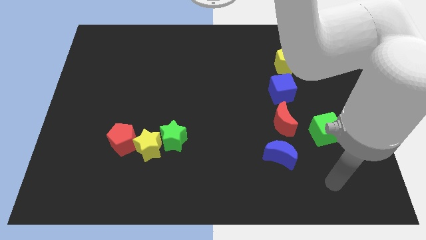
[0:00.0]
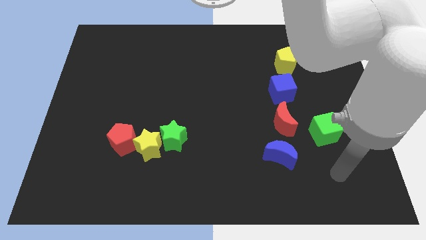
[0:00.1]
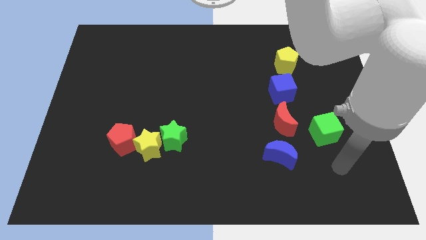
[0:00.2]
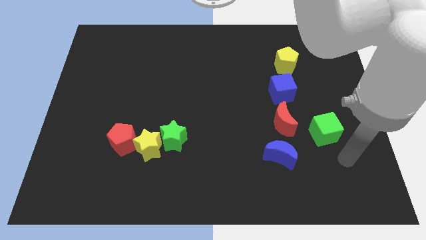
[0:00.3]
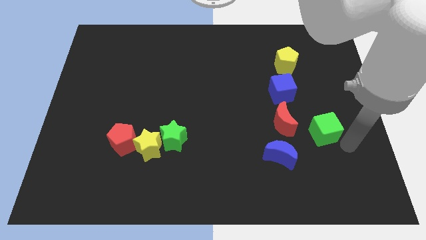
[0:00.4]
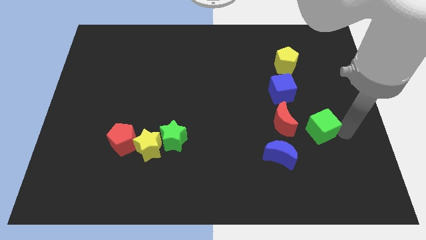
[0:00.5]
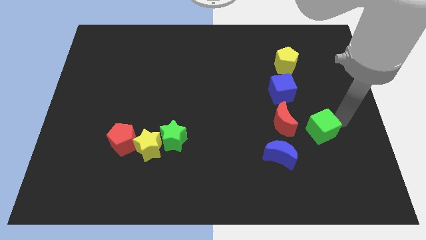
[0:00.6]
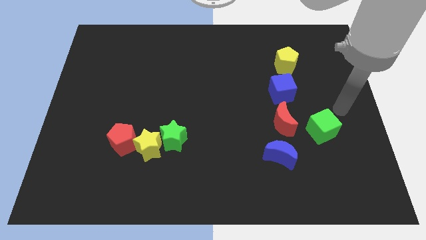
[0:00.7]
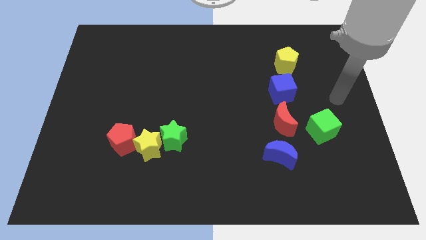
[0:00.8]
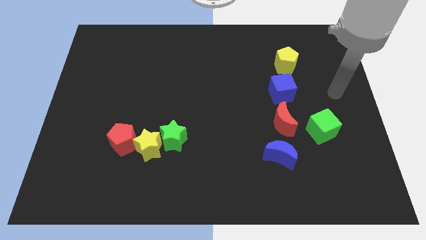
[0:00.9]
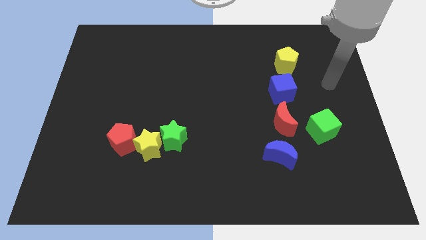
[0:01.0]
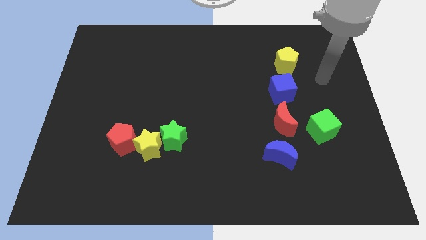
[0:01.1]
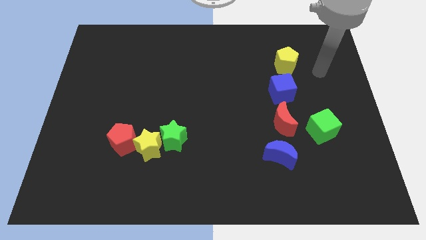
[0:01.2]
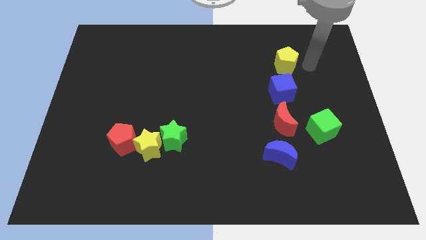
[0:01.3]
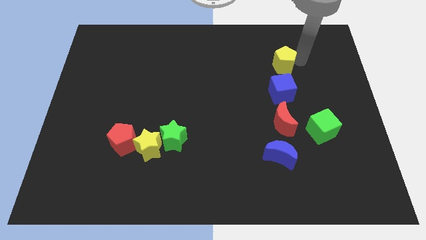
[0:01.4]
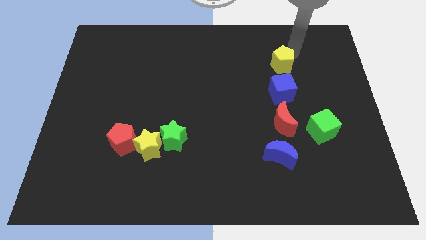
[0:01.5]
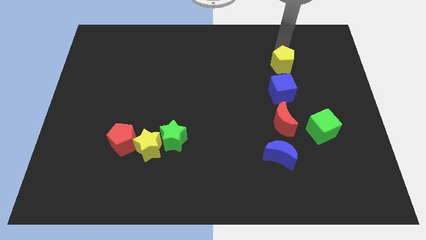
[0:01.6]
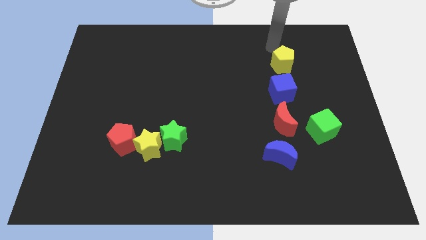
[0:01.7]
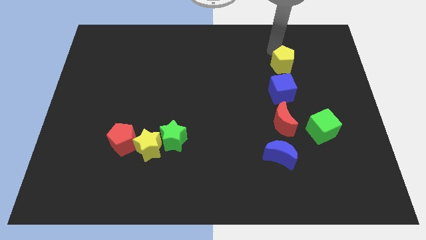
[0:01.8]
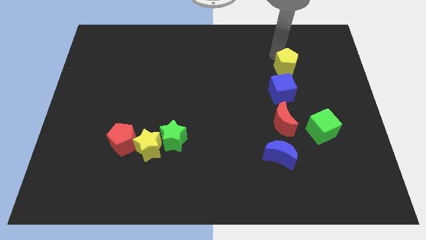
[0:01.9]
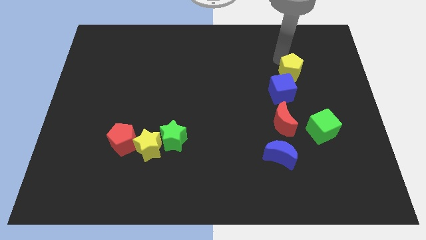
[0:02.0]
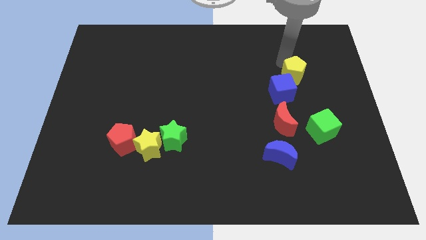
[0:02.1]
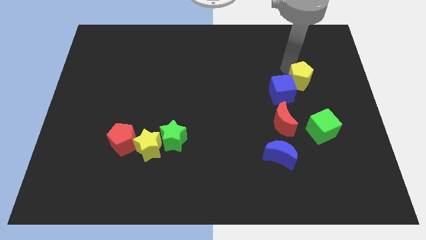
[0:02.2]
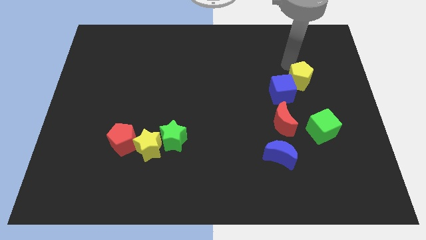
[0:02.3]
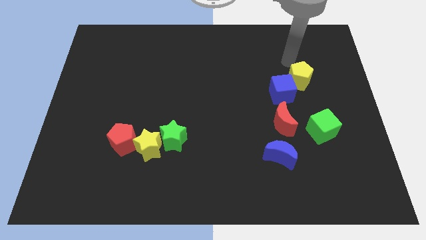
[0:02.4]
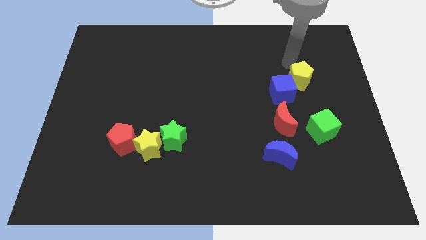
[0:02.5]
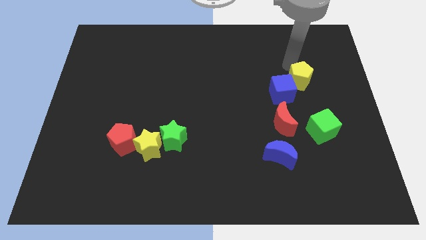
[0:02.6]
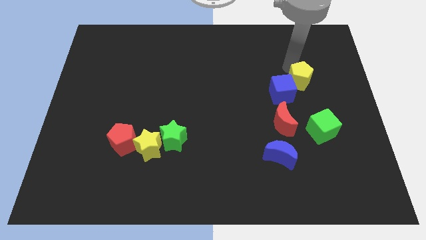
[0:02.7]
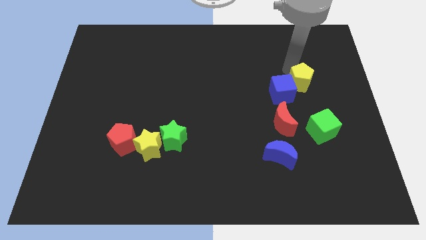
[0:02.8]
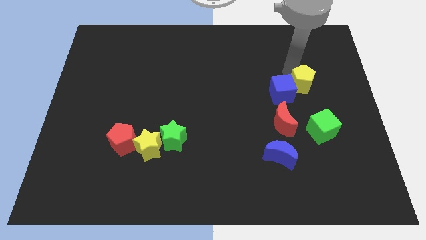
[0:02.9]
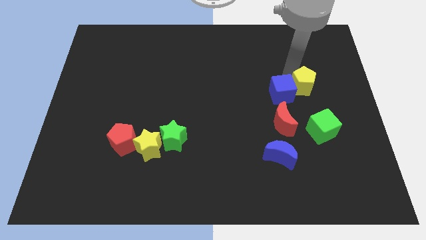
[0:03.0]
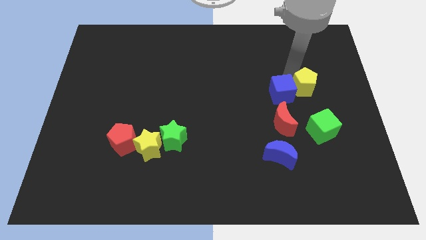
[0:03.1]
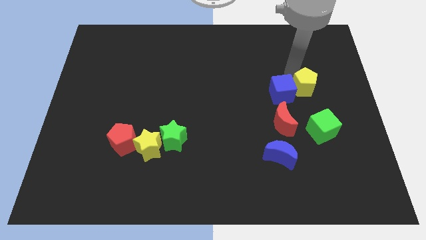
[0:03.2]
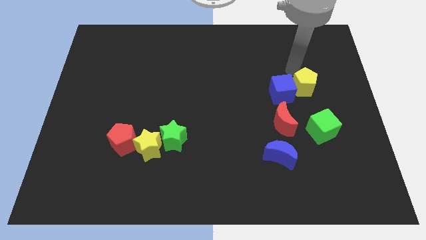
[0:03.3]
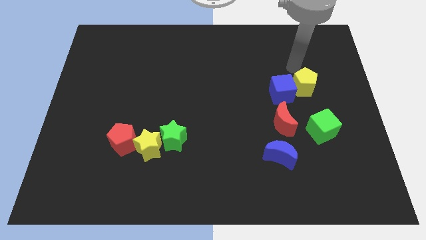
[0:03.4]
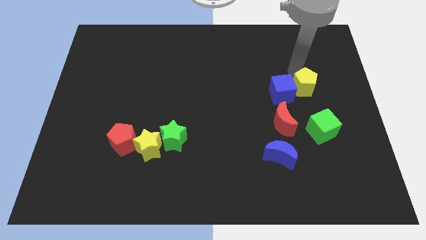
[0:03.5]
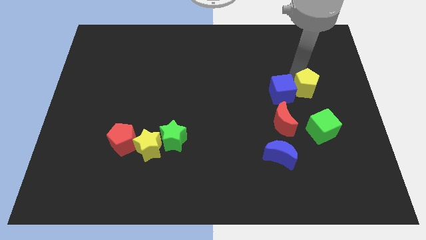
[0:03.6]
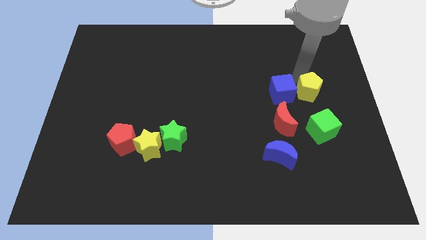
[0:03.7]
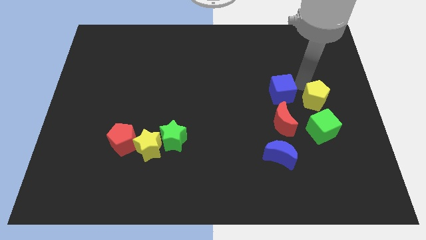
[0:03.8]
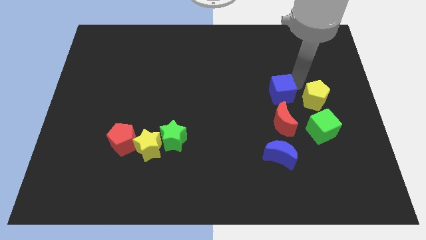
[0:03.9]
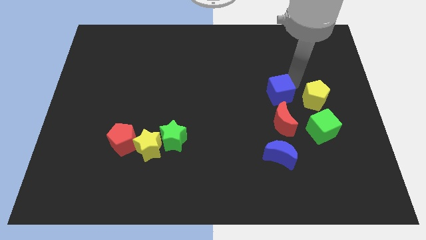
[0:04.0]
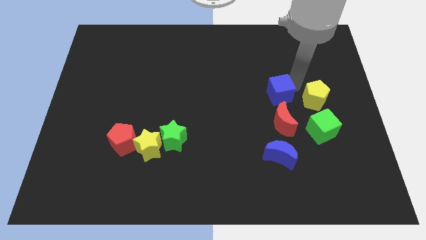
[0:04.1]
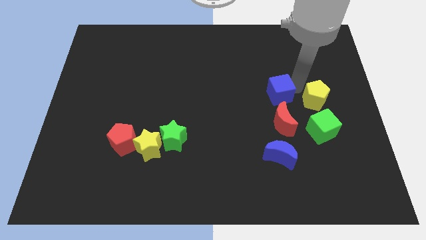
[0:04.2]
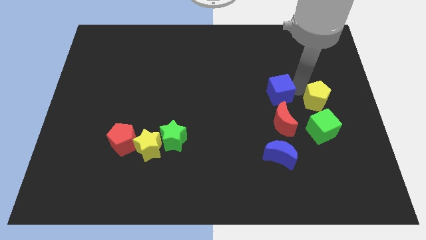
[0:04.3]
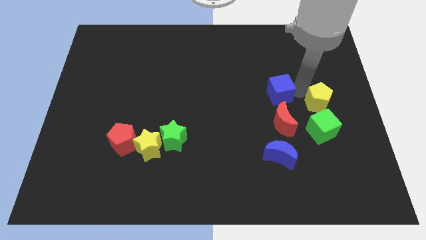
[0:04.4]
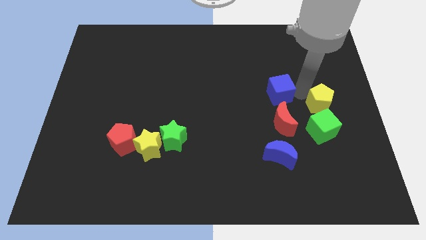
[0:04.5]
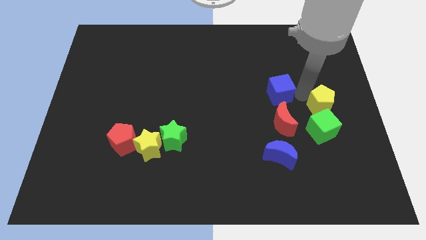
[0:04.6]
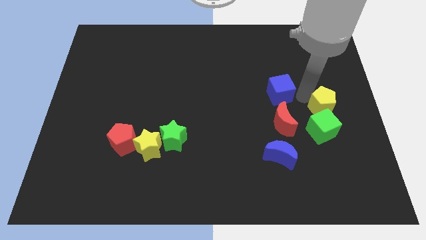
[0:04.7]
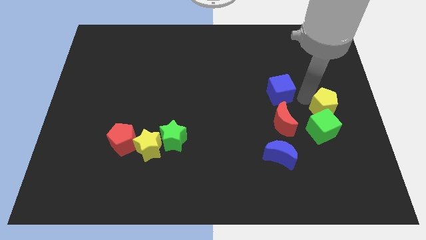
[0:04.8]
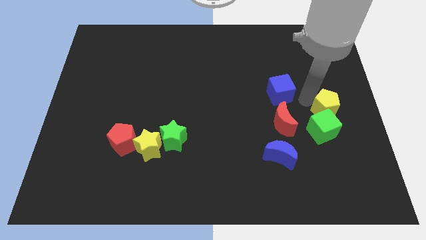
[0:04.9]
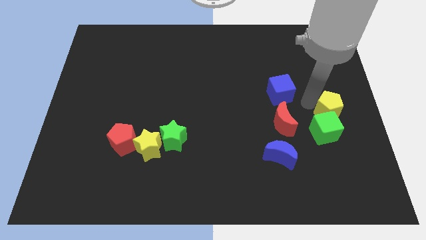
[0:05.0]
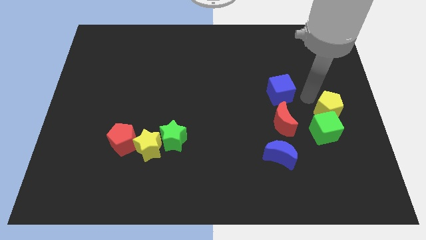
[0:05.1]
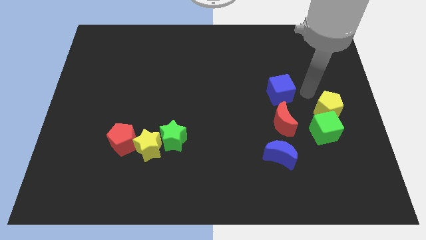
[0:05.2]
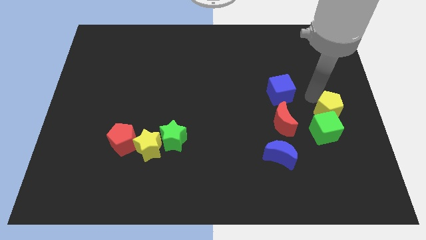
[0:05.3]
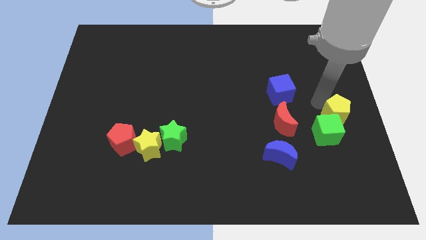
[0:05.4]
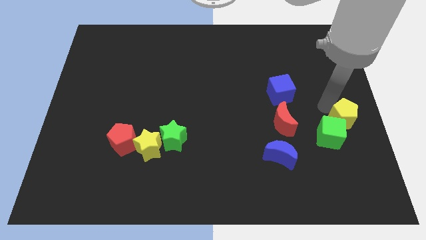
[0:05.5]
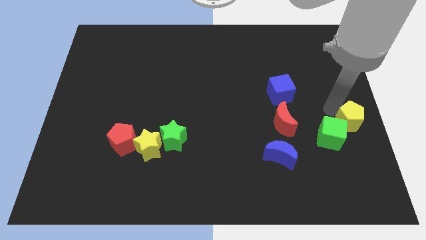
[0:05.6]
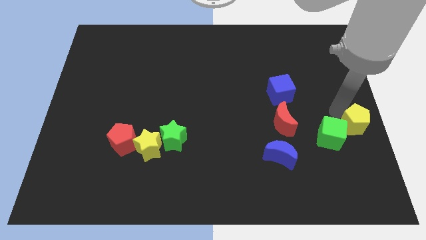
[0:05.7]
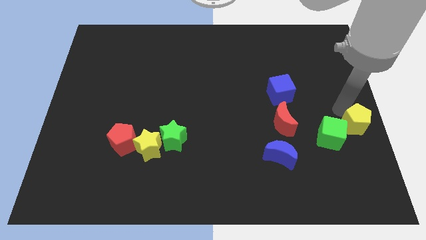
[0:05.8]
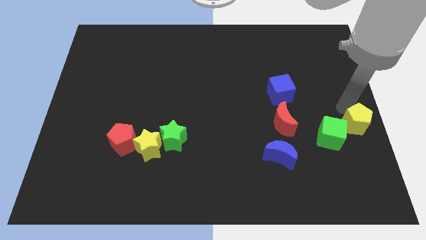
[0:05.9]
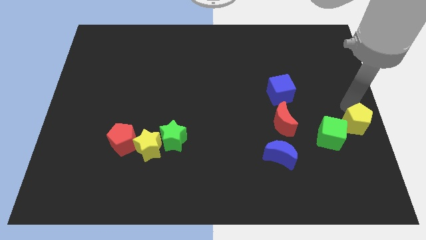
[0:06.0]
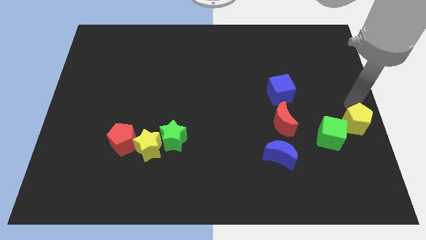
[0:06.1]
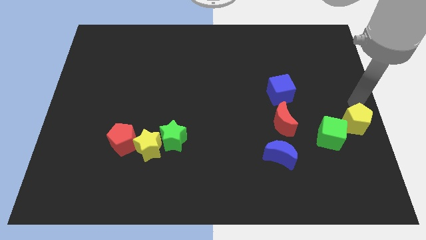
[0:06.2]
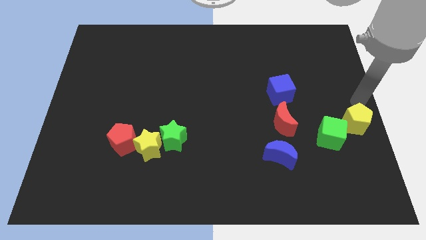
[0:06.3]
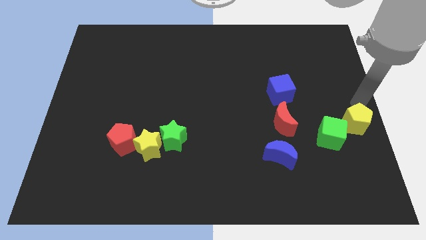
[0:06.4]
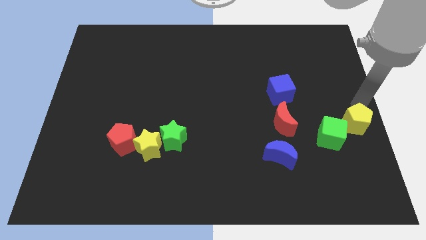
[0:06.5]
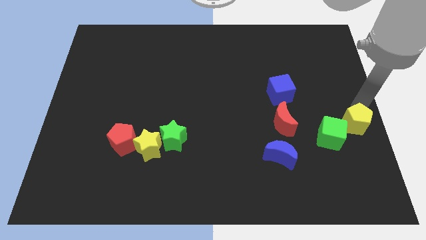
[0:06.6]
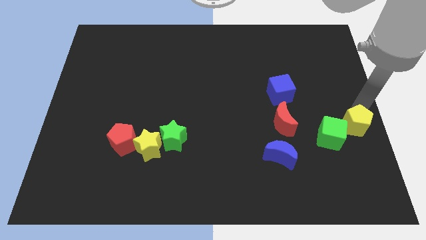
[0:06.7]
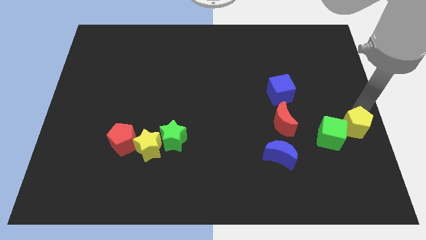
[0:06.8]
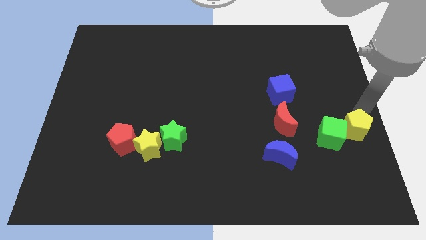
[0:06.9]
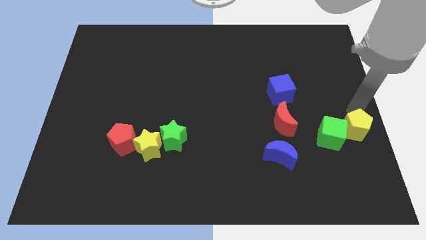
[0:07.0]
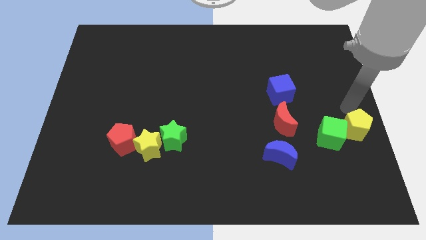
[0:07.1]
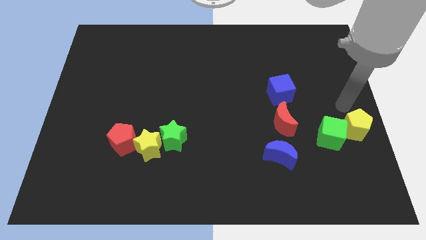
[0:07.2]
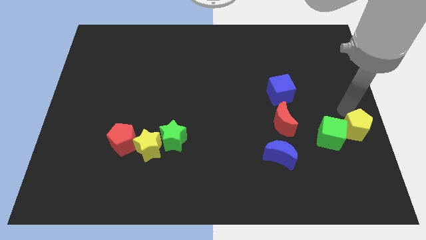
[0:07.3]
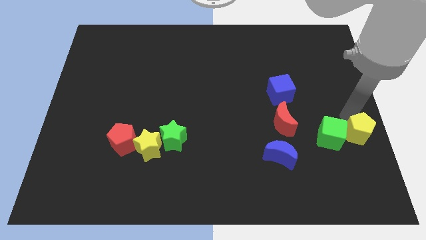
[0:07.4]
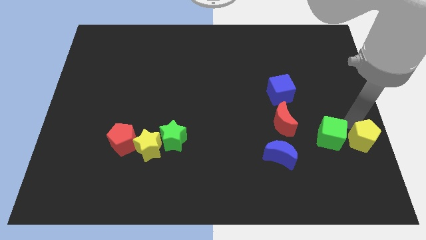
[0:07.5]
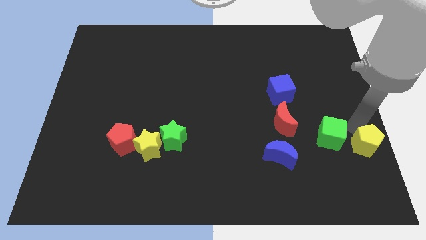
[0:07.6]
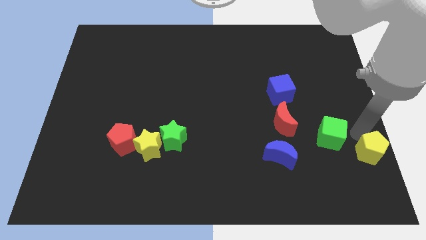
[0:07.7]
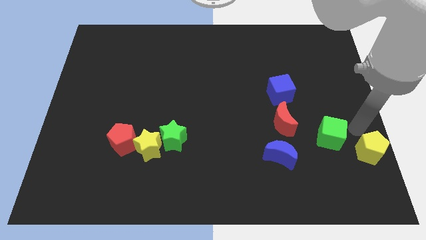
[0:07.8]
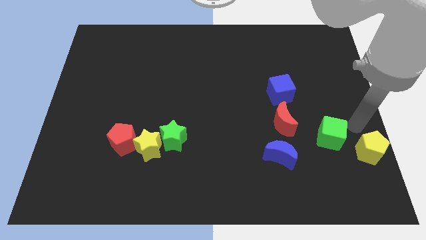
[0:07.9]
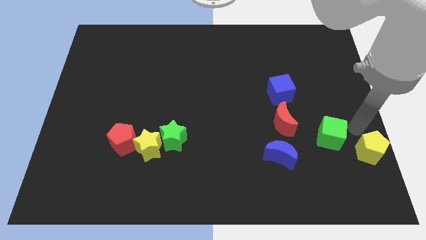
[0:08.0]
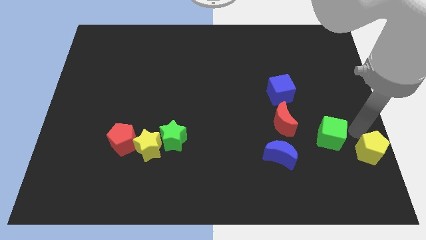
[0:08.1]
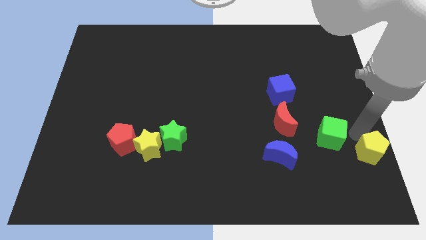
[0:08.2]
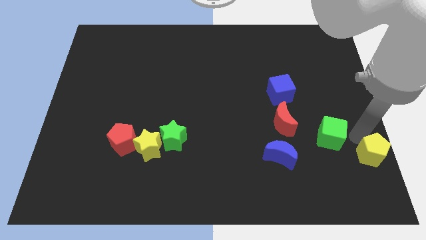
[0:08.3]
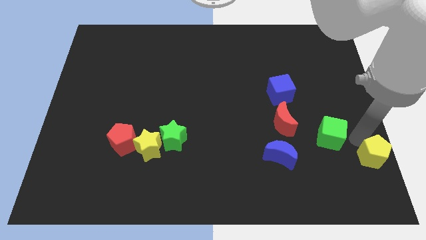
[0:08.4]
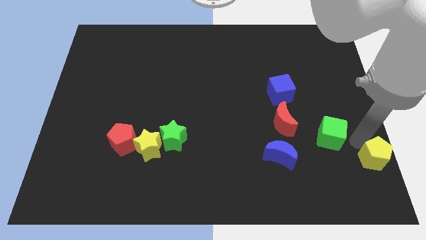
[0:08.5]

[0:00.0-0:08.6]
put the yellow pentagon to the bottom right of the board
